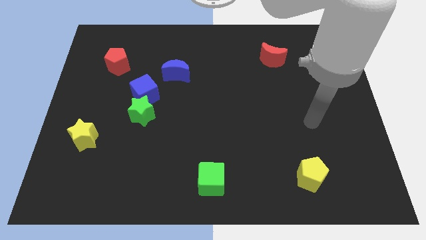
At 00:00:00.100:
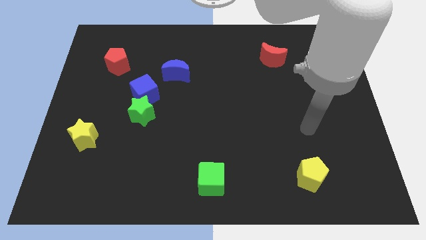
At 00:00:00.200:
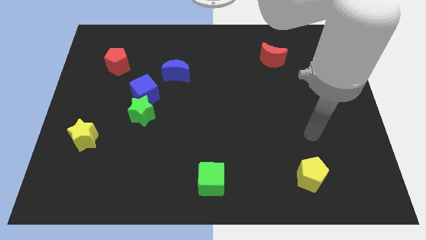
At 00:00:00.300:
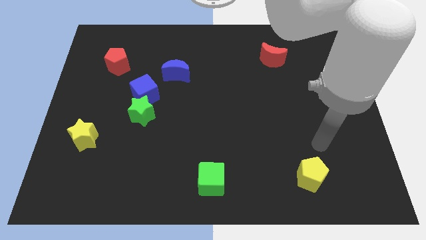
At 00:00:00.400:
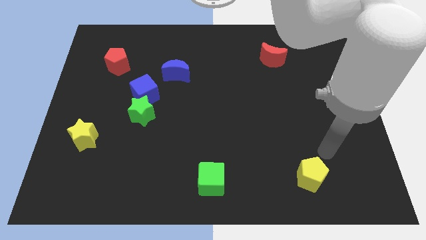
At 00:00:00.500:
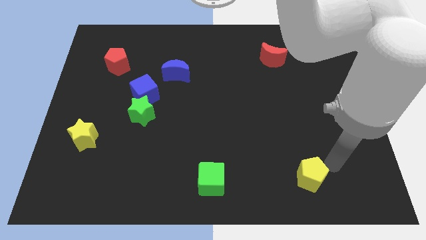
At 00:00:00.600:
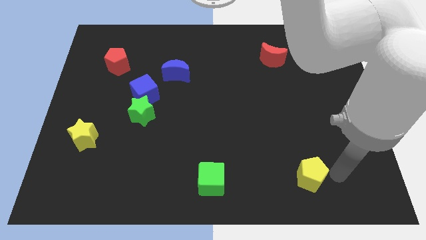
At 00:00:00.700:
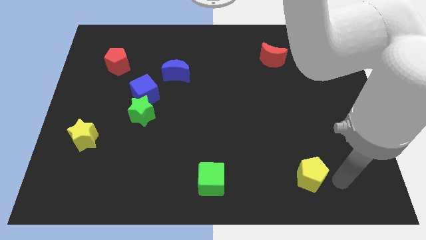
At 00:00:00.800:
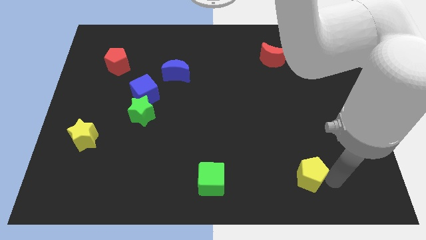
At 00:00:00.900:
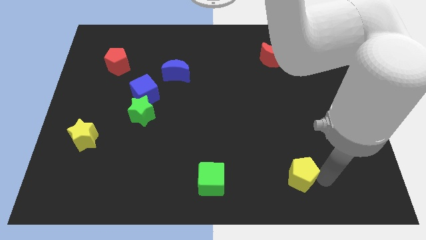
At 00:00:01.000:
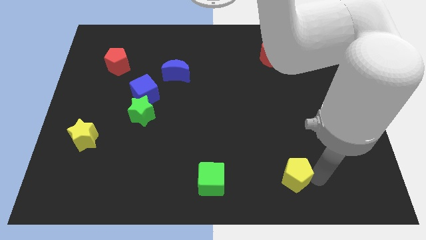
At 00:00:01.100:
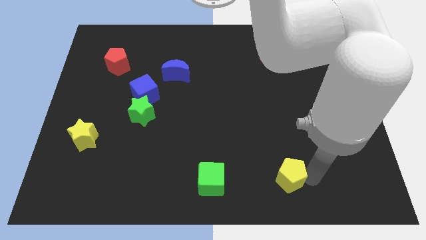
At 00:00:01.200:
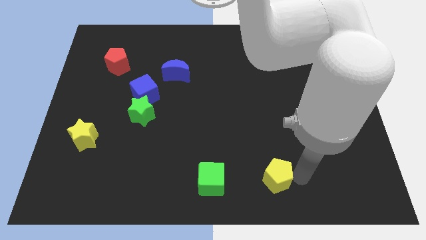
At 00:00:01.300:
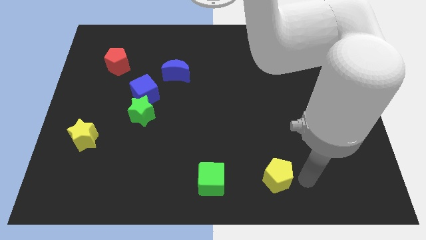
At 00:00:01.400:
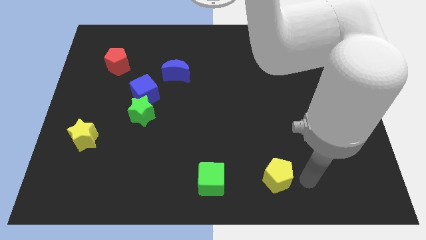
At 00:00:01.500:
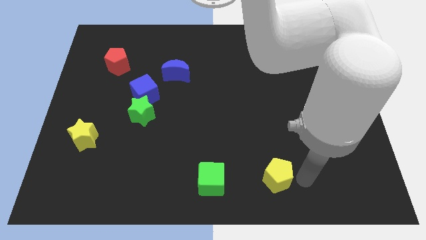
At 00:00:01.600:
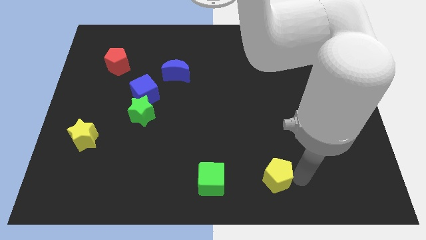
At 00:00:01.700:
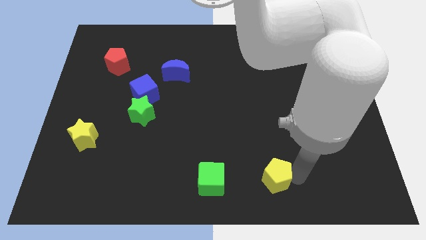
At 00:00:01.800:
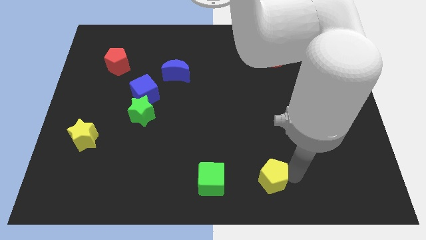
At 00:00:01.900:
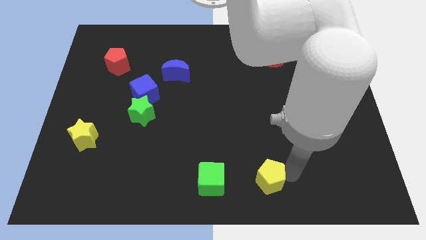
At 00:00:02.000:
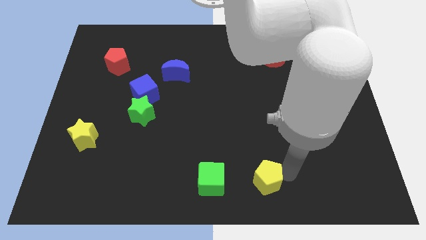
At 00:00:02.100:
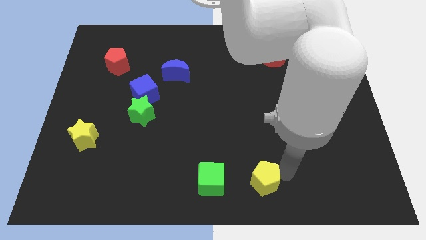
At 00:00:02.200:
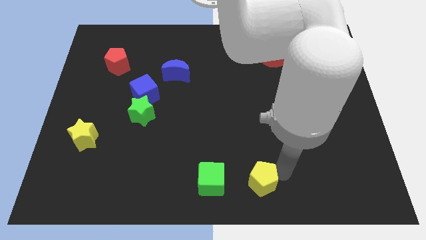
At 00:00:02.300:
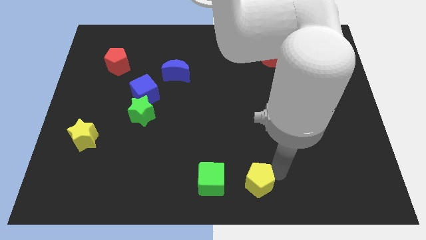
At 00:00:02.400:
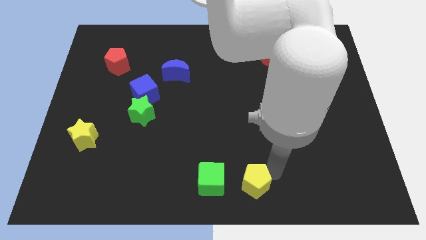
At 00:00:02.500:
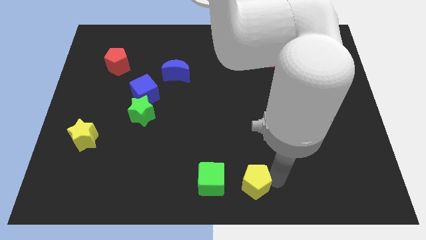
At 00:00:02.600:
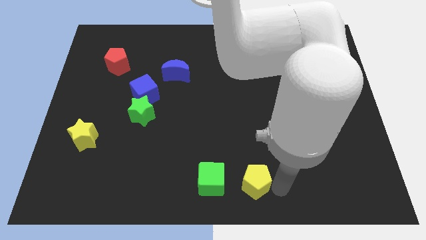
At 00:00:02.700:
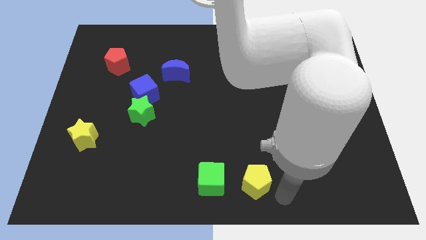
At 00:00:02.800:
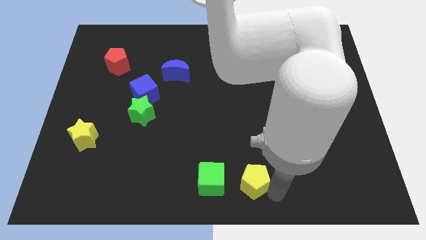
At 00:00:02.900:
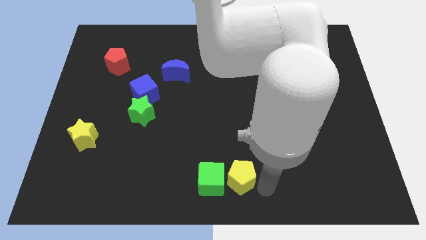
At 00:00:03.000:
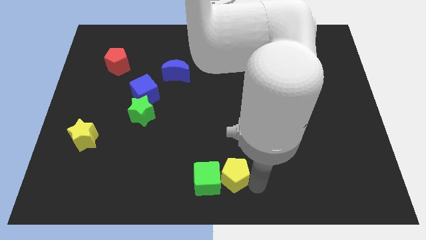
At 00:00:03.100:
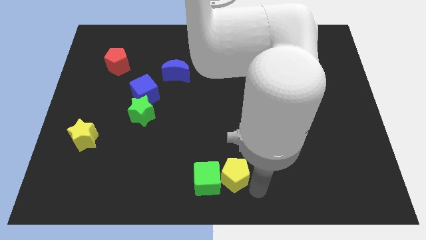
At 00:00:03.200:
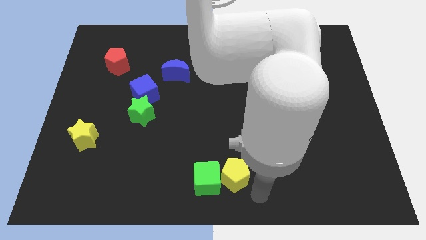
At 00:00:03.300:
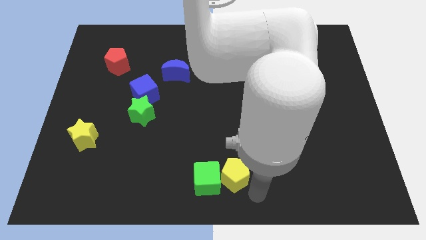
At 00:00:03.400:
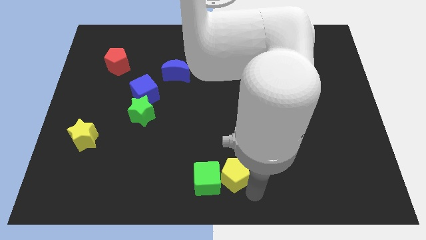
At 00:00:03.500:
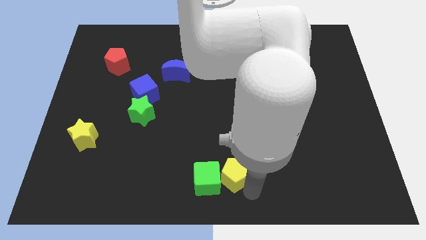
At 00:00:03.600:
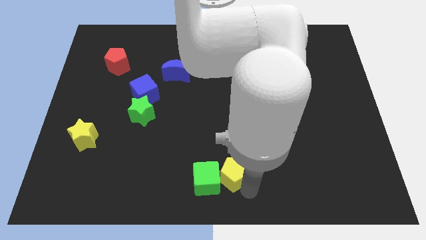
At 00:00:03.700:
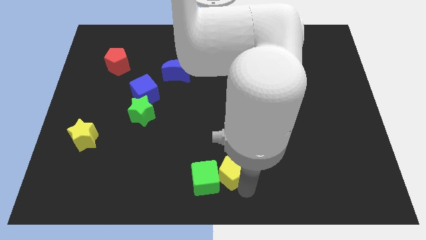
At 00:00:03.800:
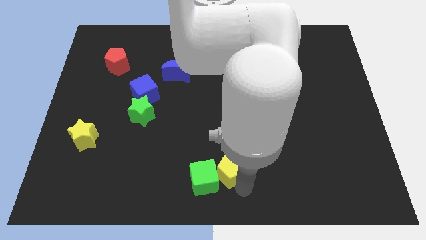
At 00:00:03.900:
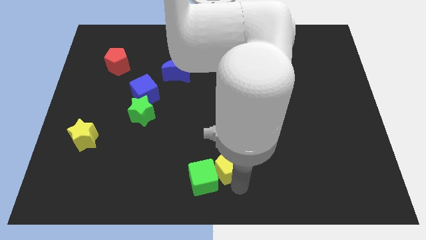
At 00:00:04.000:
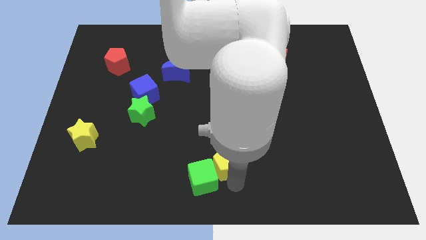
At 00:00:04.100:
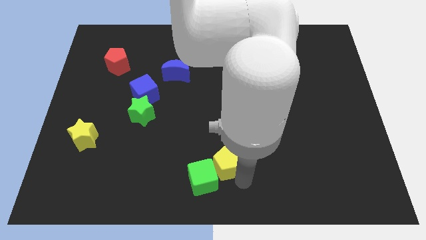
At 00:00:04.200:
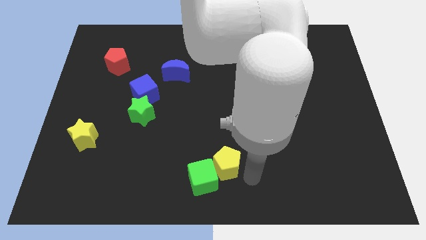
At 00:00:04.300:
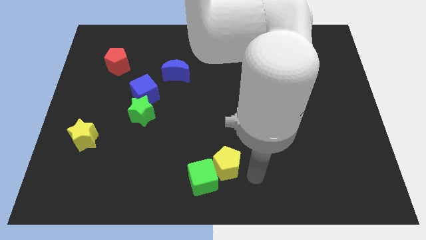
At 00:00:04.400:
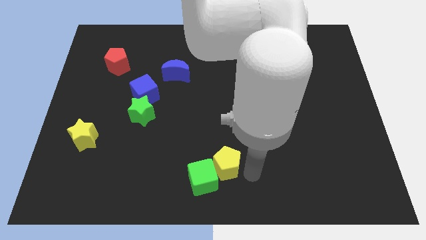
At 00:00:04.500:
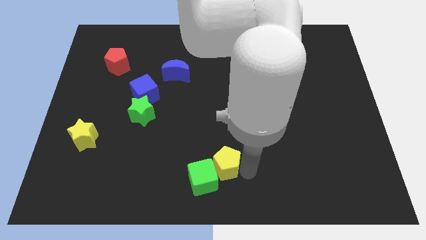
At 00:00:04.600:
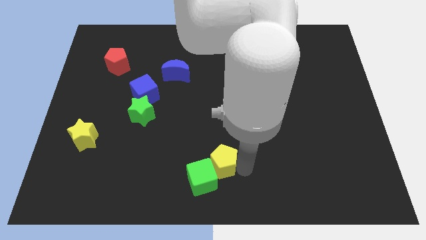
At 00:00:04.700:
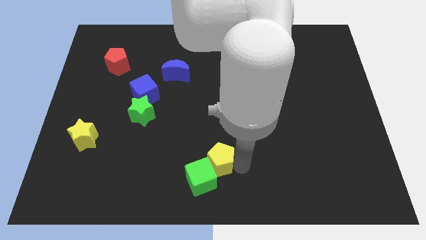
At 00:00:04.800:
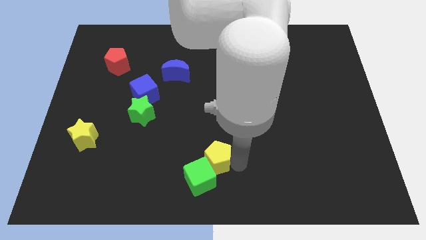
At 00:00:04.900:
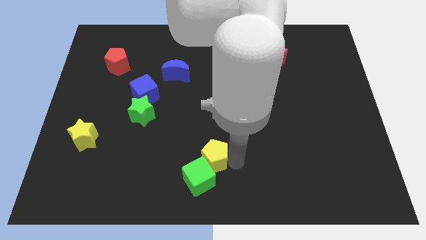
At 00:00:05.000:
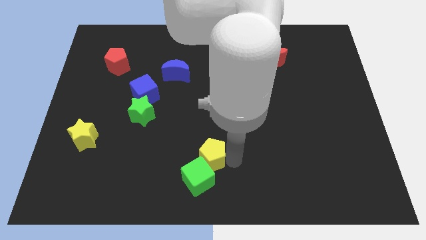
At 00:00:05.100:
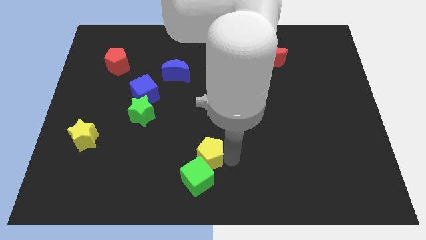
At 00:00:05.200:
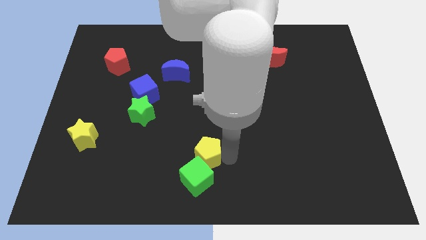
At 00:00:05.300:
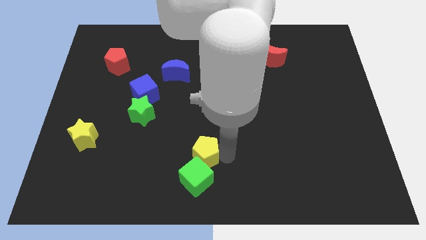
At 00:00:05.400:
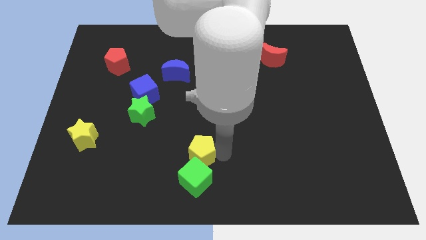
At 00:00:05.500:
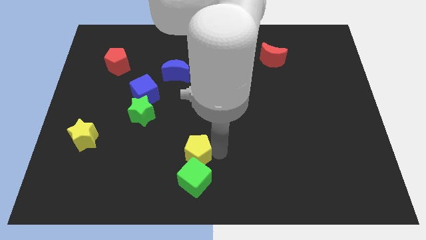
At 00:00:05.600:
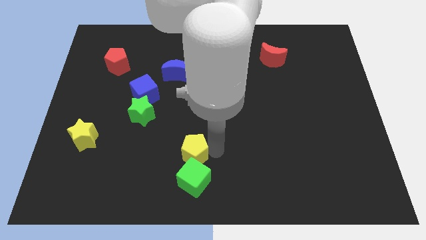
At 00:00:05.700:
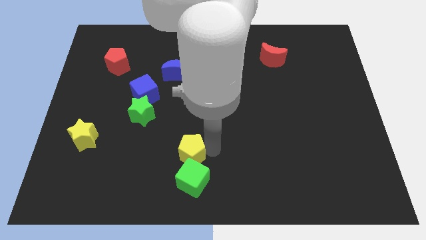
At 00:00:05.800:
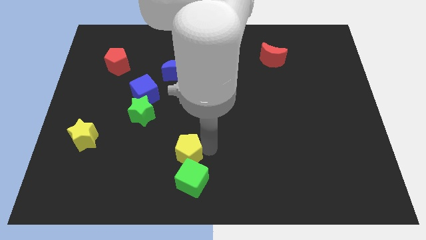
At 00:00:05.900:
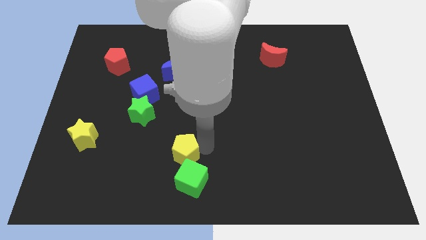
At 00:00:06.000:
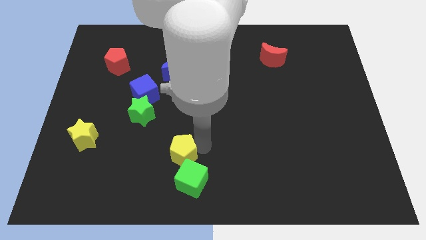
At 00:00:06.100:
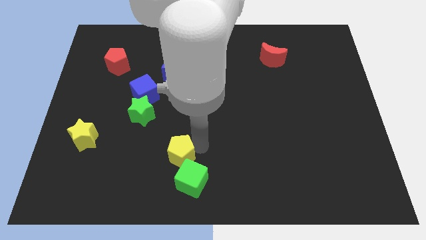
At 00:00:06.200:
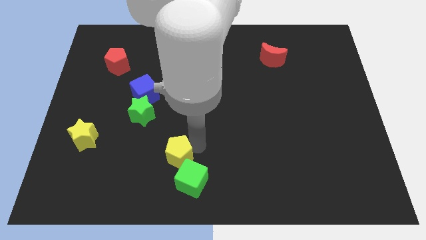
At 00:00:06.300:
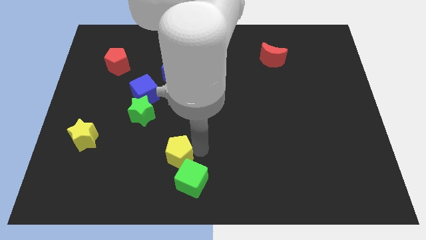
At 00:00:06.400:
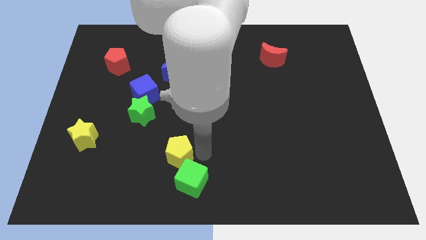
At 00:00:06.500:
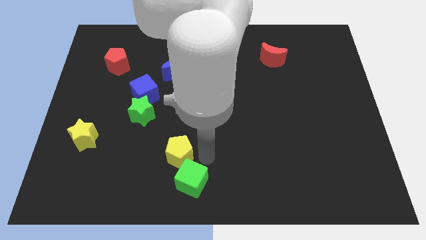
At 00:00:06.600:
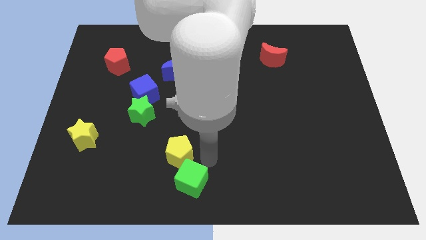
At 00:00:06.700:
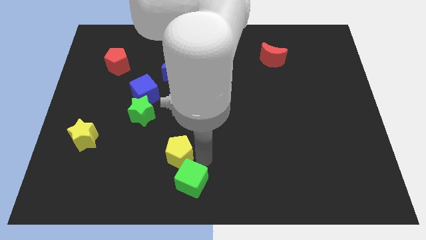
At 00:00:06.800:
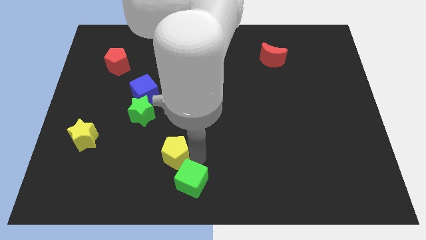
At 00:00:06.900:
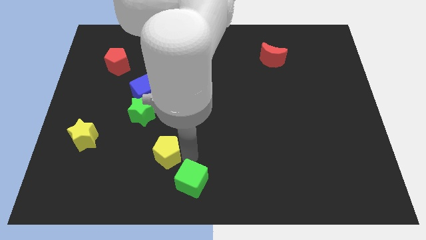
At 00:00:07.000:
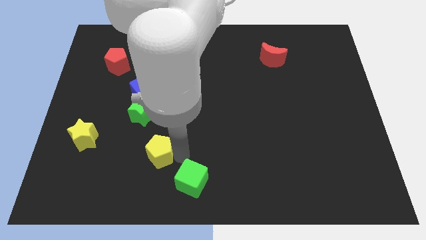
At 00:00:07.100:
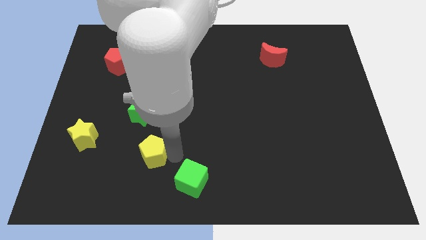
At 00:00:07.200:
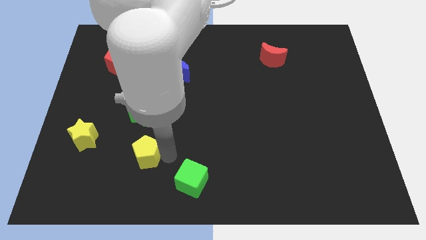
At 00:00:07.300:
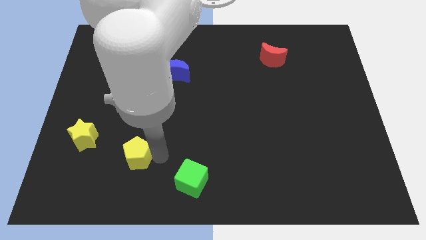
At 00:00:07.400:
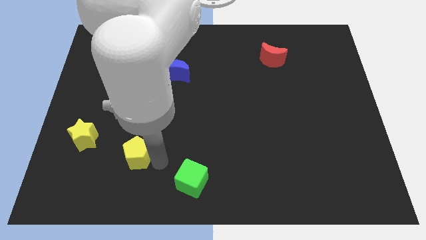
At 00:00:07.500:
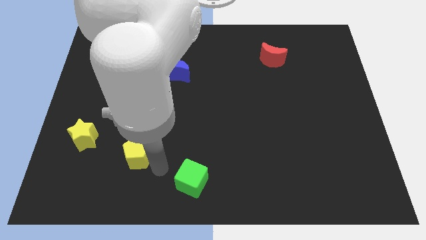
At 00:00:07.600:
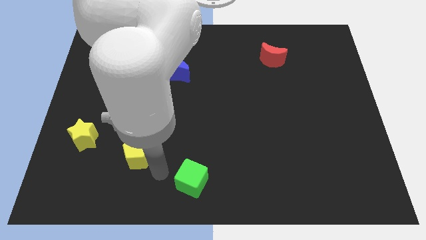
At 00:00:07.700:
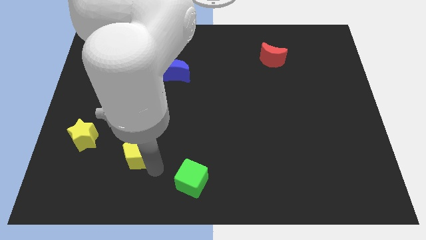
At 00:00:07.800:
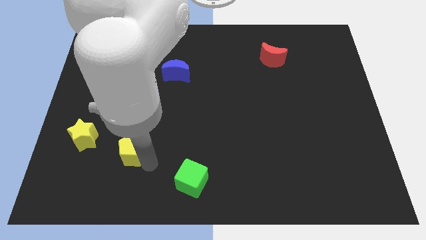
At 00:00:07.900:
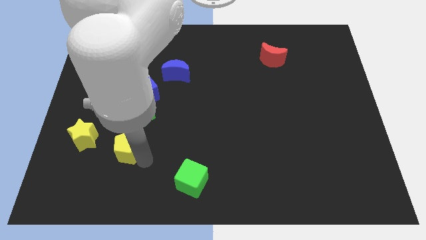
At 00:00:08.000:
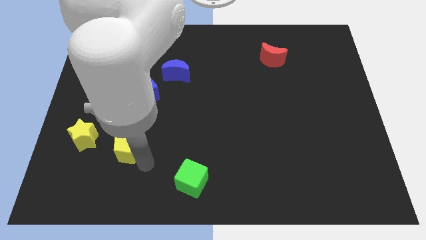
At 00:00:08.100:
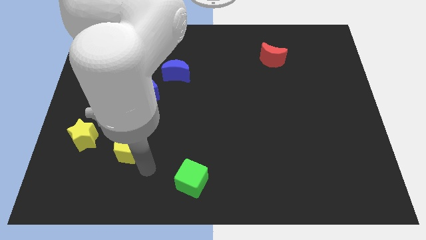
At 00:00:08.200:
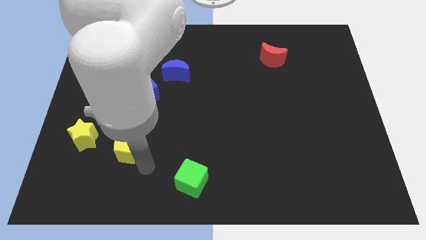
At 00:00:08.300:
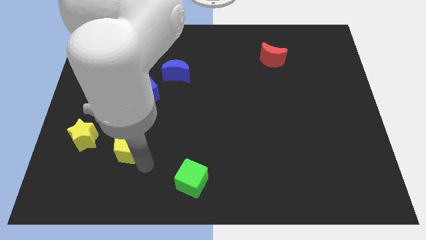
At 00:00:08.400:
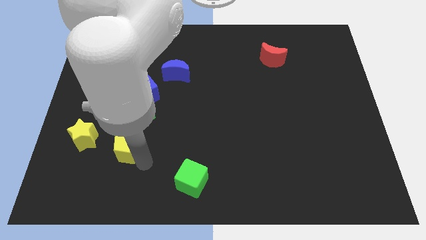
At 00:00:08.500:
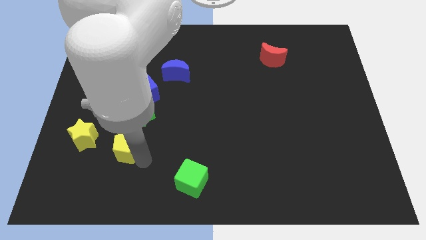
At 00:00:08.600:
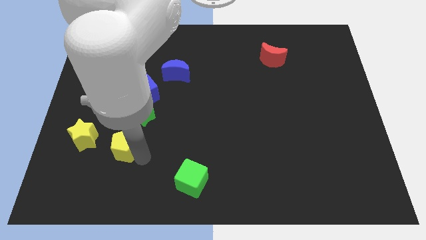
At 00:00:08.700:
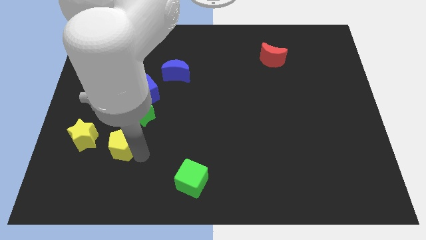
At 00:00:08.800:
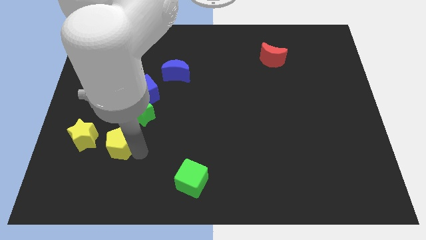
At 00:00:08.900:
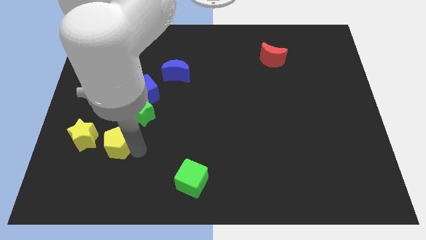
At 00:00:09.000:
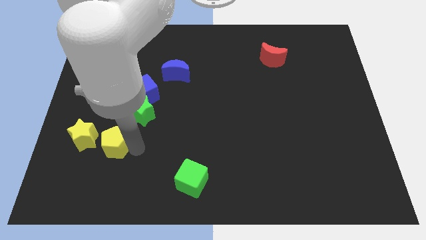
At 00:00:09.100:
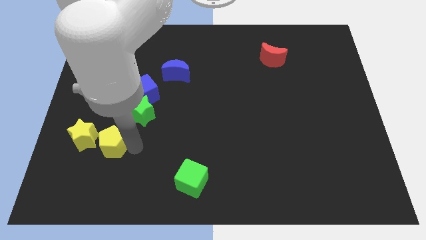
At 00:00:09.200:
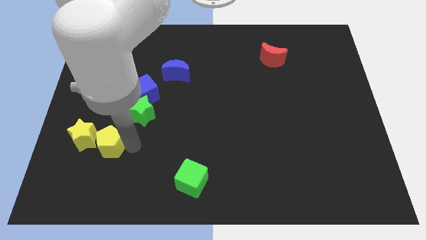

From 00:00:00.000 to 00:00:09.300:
put the yellow pentagon close to the yellow star
